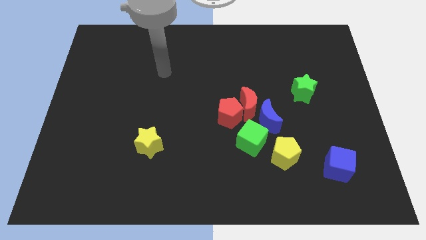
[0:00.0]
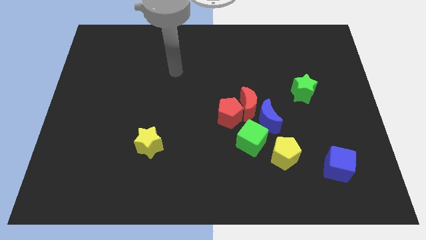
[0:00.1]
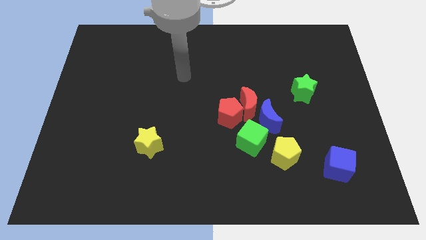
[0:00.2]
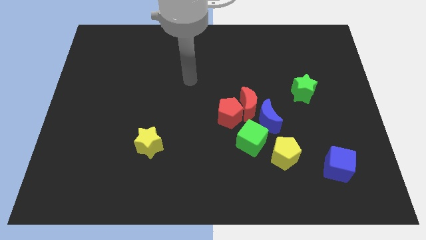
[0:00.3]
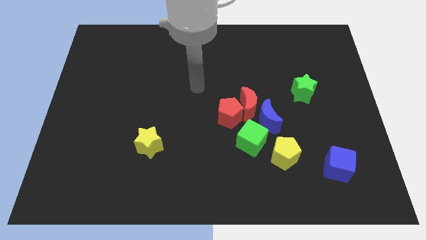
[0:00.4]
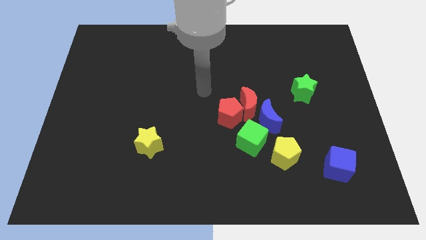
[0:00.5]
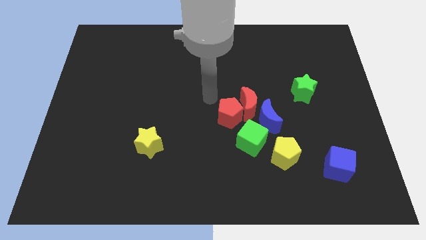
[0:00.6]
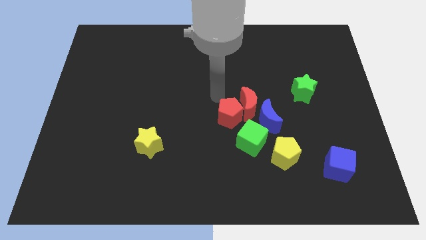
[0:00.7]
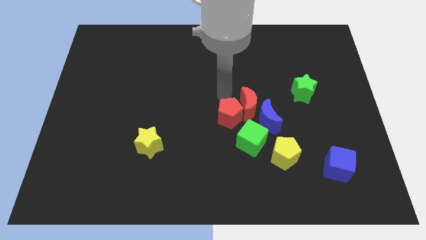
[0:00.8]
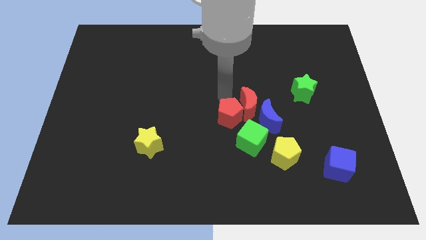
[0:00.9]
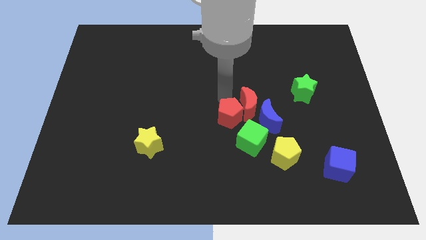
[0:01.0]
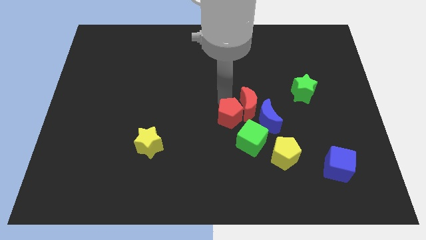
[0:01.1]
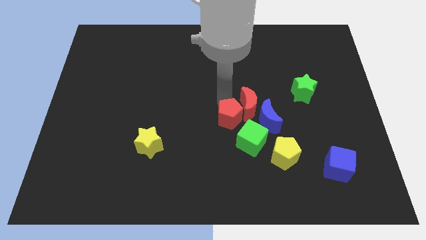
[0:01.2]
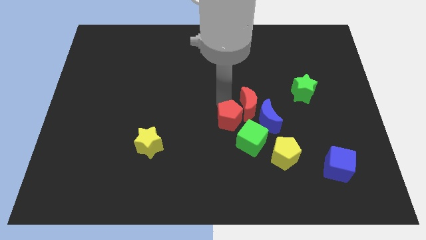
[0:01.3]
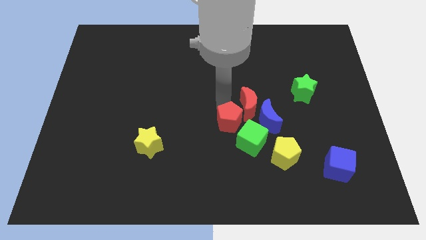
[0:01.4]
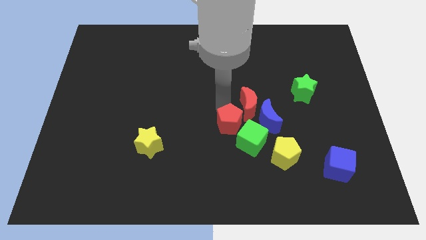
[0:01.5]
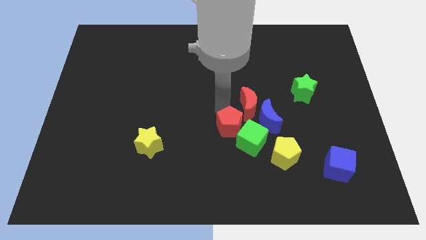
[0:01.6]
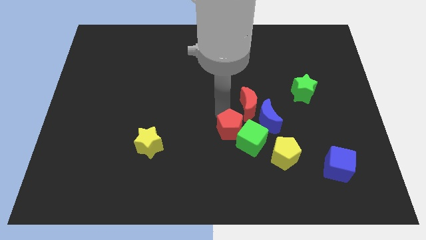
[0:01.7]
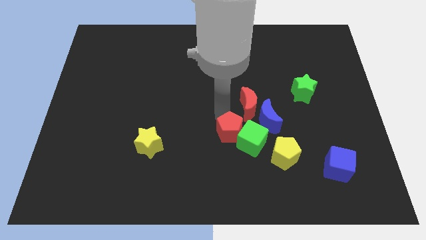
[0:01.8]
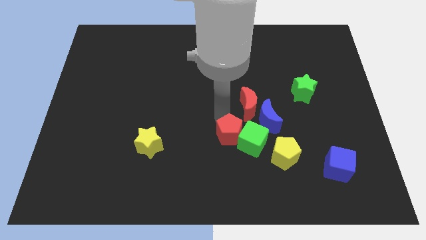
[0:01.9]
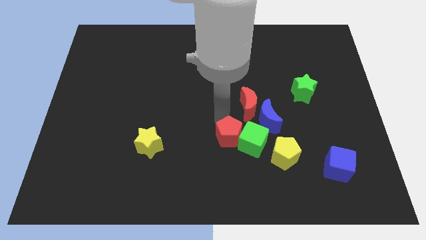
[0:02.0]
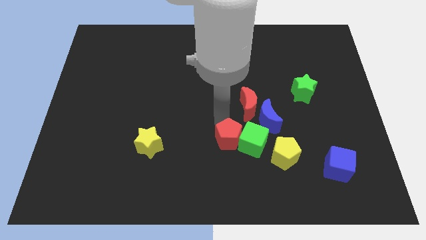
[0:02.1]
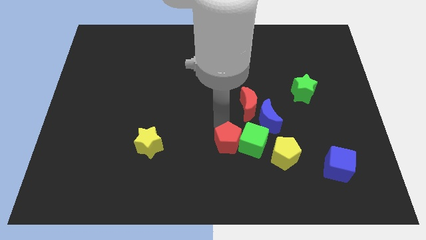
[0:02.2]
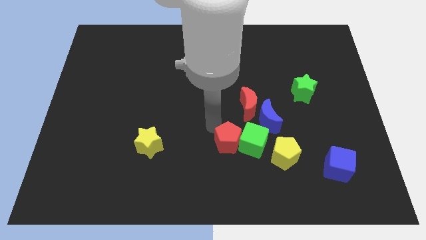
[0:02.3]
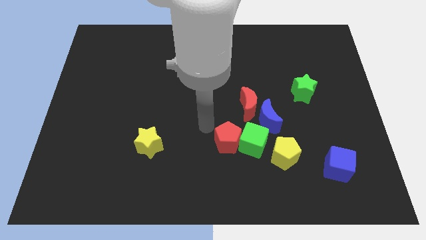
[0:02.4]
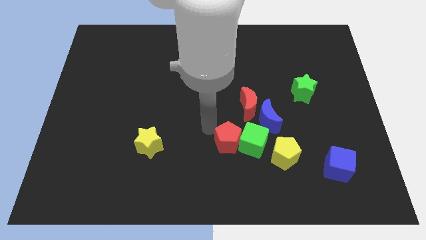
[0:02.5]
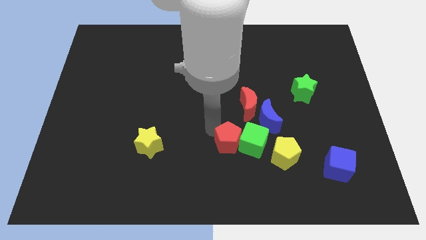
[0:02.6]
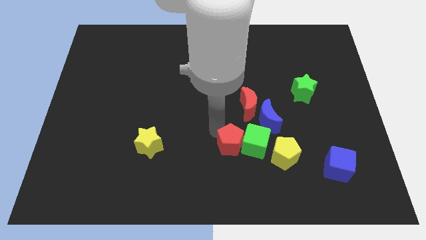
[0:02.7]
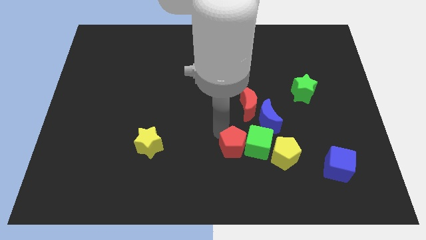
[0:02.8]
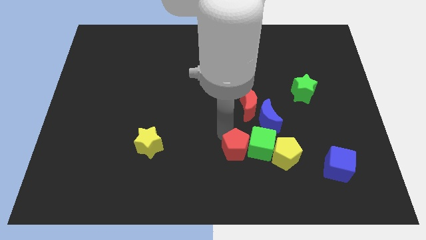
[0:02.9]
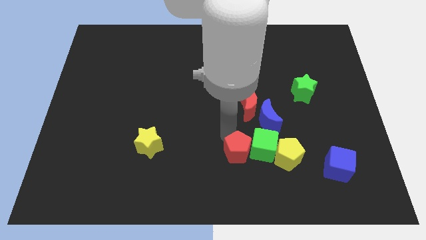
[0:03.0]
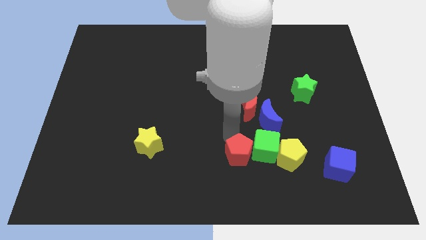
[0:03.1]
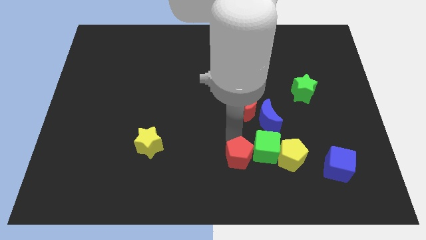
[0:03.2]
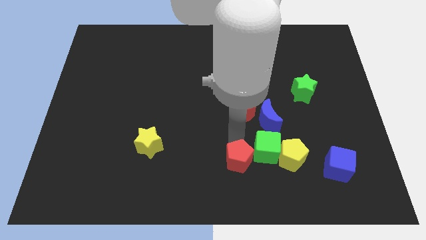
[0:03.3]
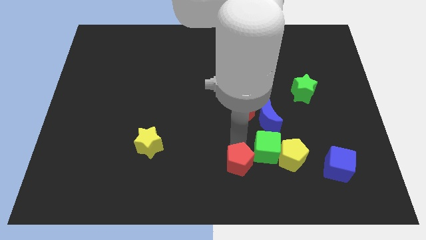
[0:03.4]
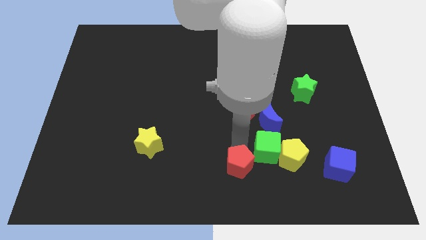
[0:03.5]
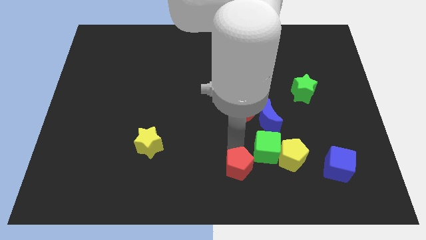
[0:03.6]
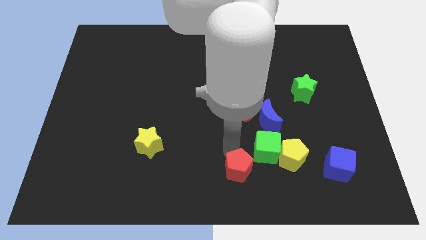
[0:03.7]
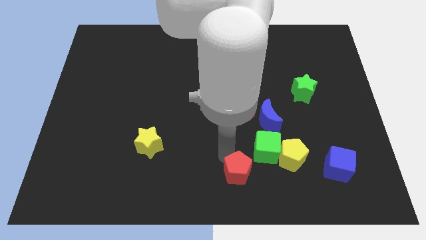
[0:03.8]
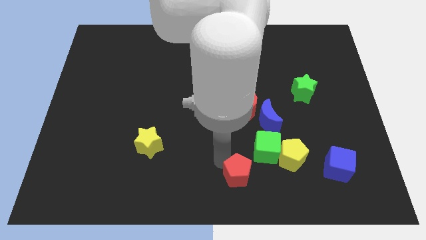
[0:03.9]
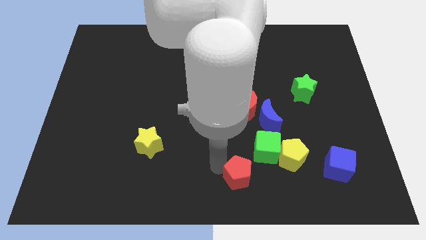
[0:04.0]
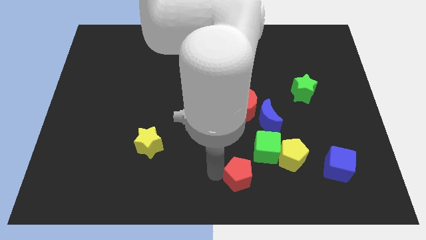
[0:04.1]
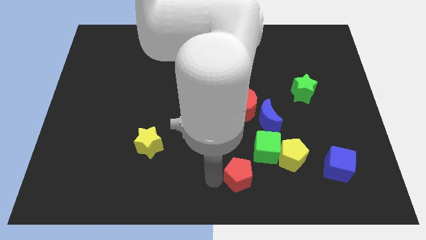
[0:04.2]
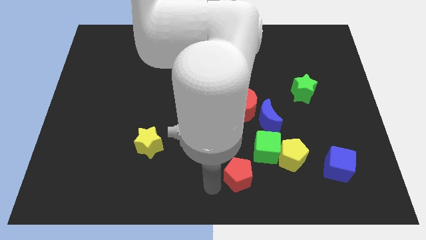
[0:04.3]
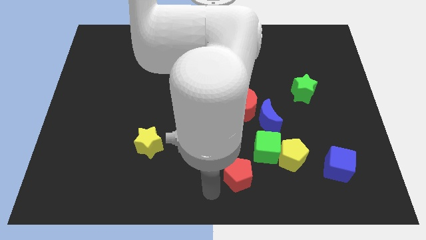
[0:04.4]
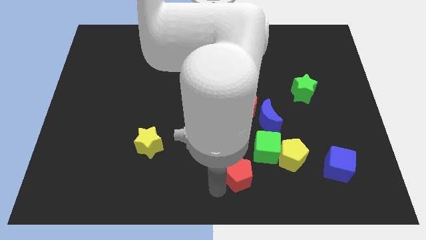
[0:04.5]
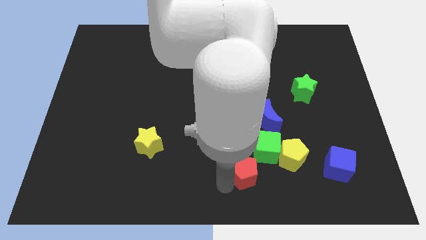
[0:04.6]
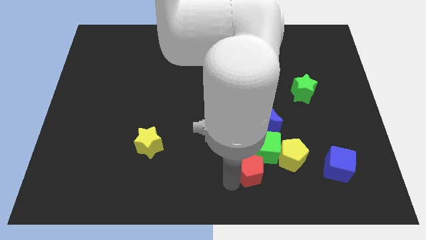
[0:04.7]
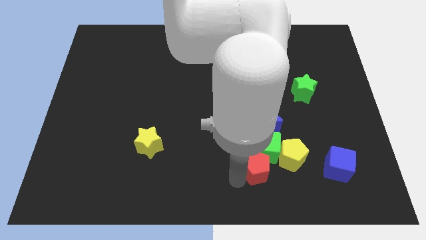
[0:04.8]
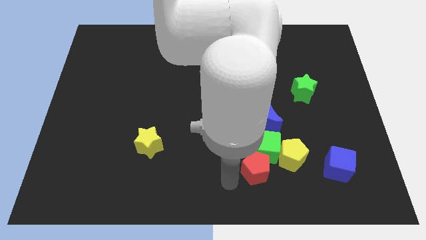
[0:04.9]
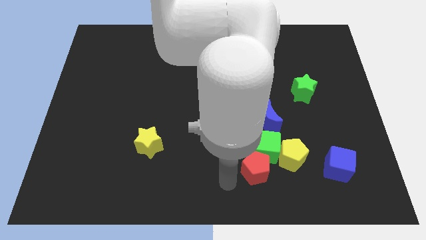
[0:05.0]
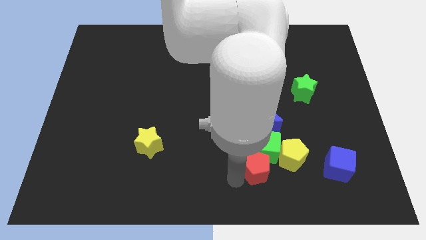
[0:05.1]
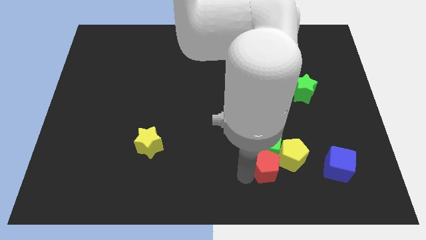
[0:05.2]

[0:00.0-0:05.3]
slide the red pentagon to the yellow pentagon

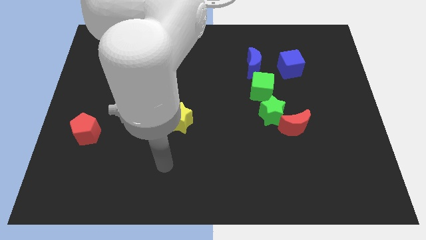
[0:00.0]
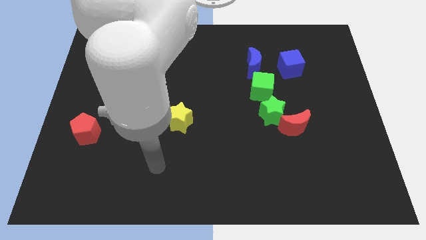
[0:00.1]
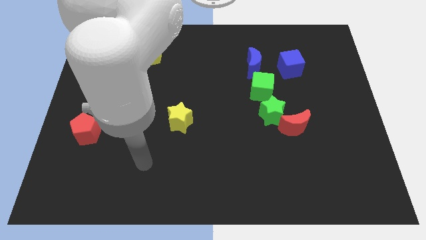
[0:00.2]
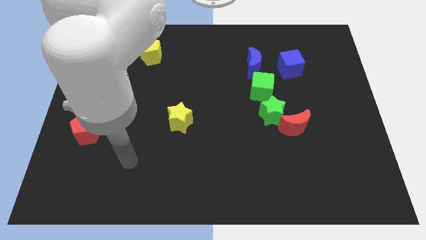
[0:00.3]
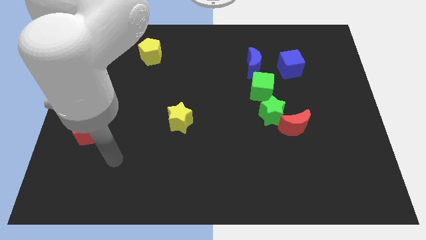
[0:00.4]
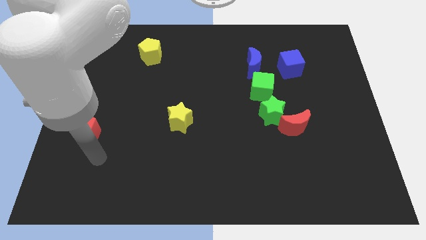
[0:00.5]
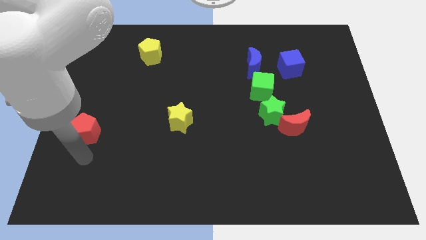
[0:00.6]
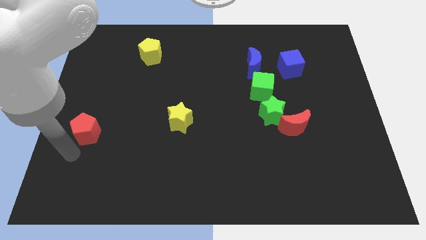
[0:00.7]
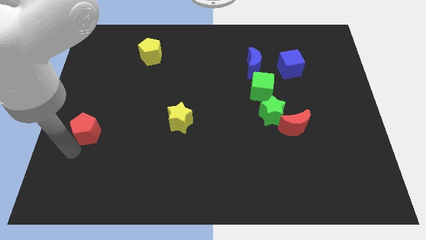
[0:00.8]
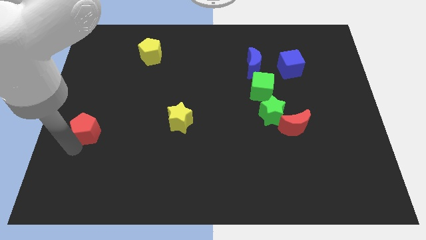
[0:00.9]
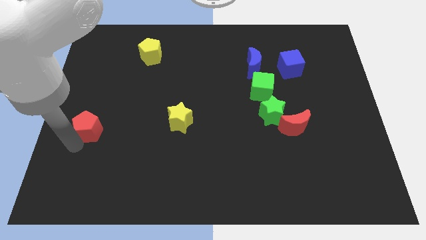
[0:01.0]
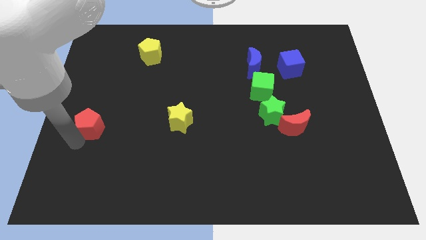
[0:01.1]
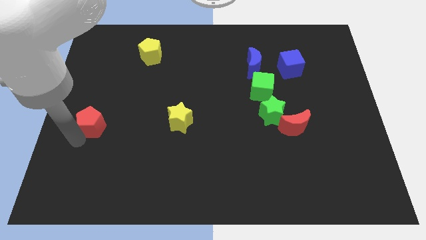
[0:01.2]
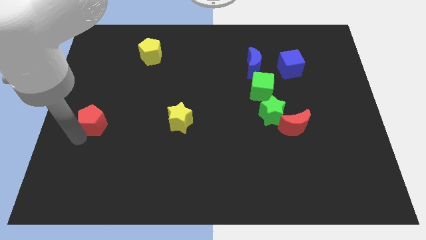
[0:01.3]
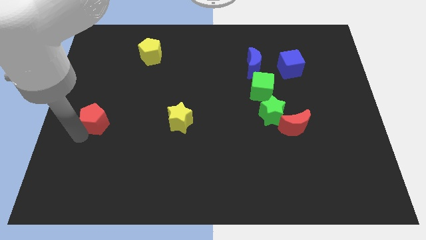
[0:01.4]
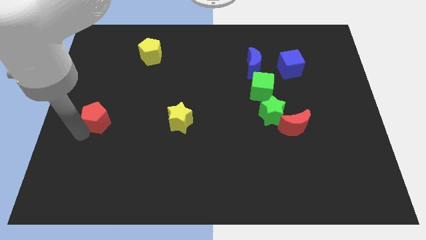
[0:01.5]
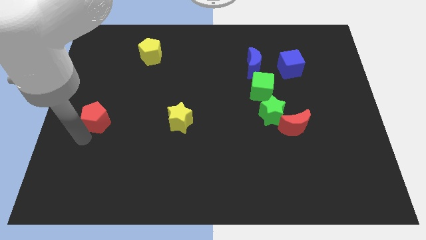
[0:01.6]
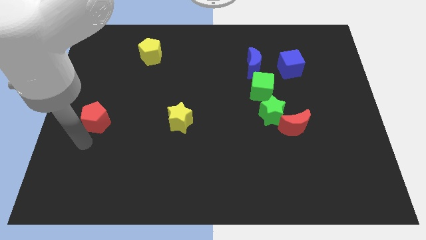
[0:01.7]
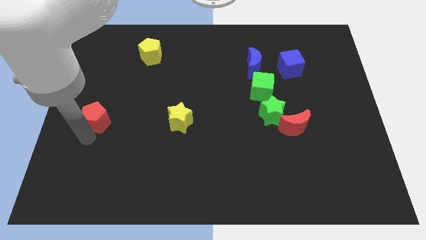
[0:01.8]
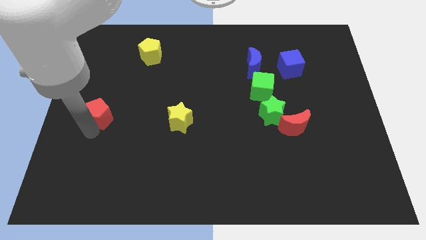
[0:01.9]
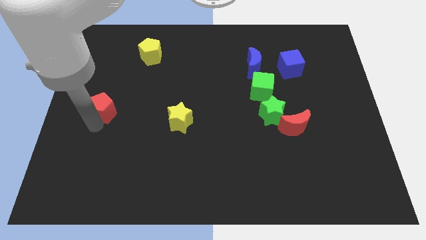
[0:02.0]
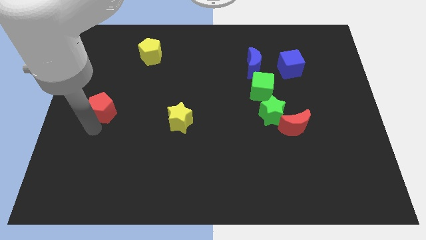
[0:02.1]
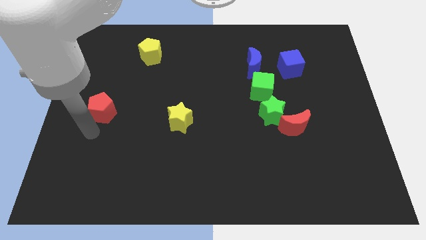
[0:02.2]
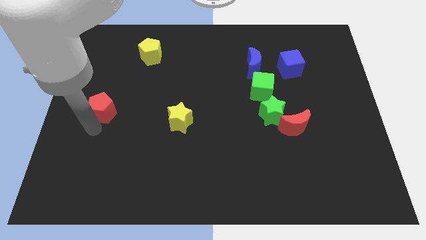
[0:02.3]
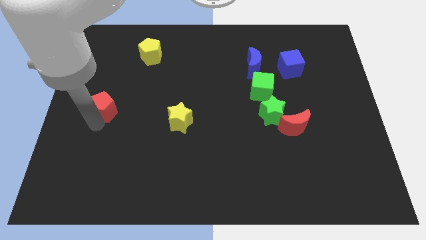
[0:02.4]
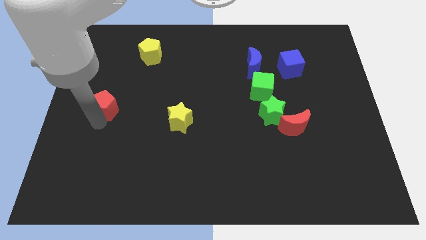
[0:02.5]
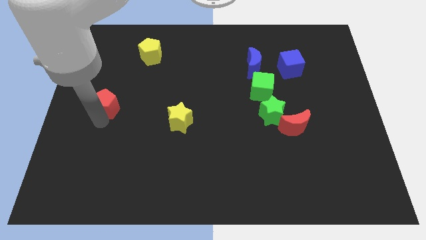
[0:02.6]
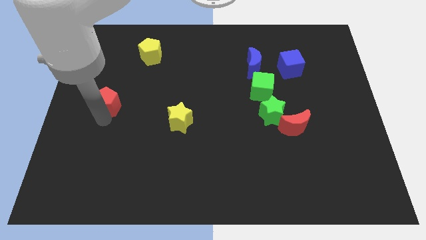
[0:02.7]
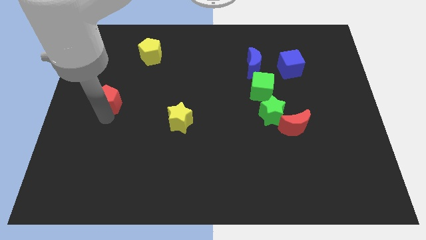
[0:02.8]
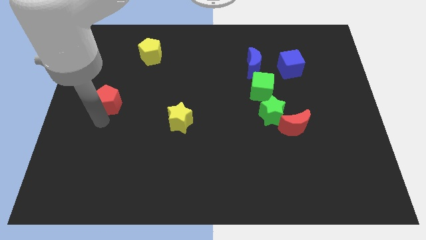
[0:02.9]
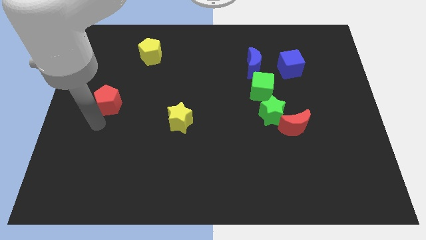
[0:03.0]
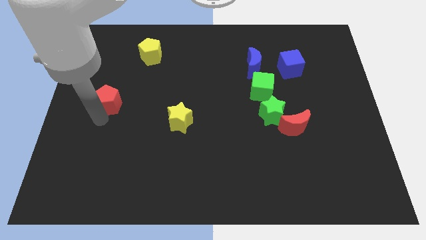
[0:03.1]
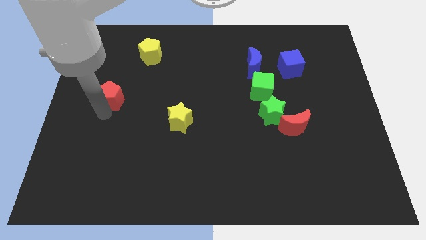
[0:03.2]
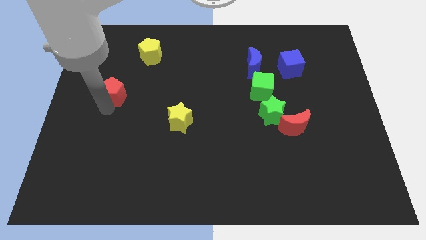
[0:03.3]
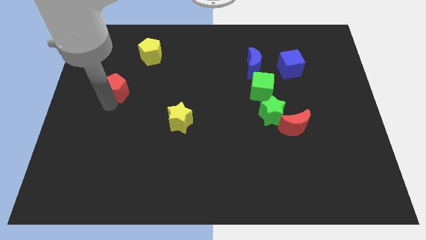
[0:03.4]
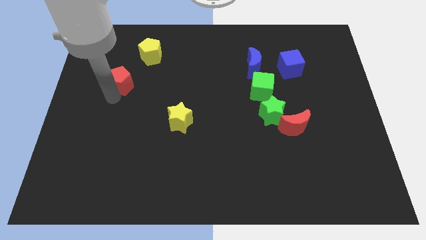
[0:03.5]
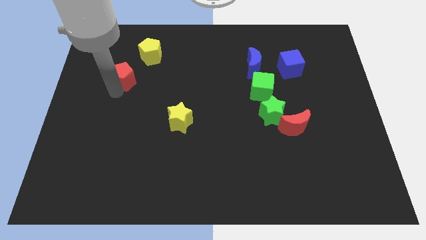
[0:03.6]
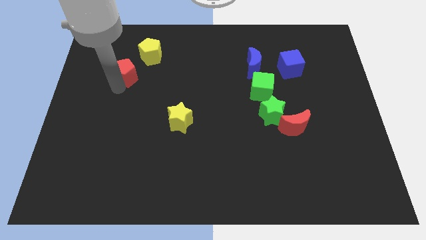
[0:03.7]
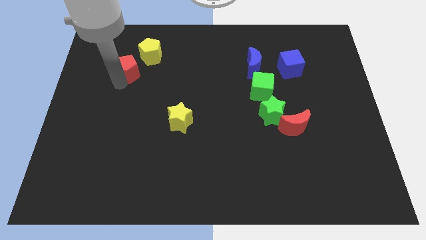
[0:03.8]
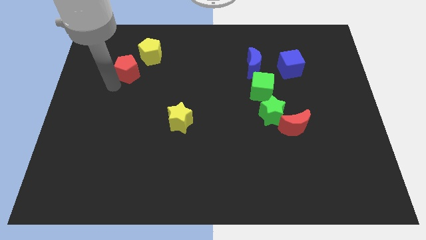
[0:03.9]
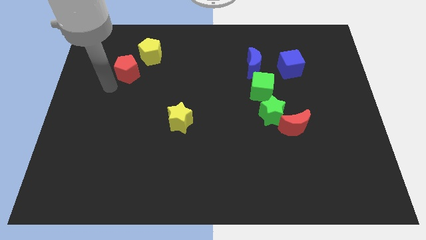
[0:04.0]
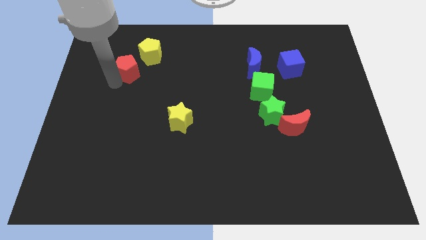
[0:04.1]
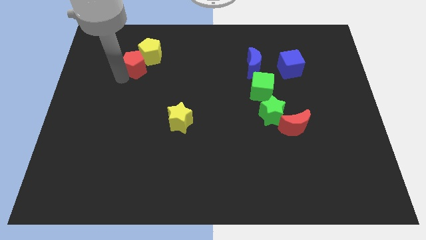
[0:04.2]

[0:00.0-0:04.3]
push the red pentagon next to the yellow pentagon
